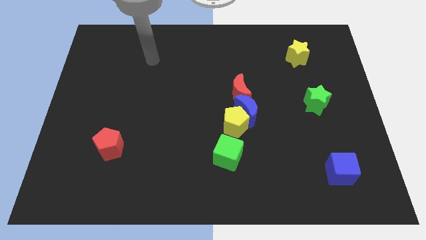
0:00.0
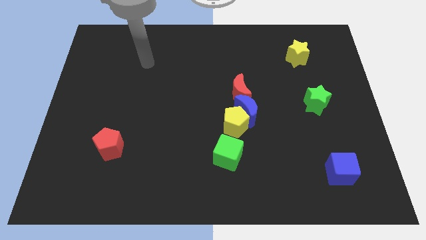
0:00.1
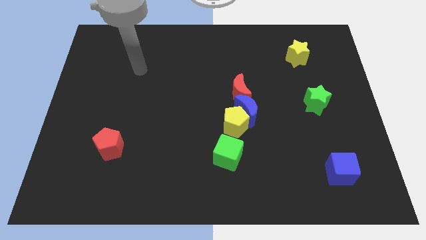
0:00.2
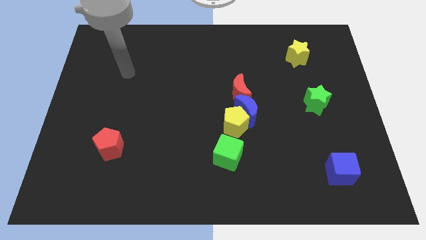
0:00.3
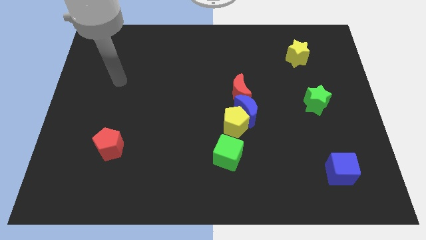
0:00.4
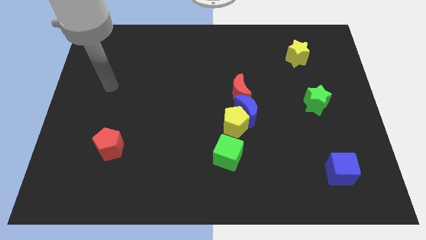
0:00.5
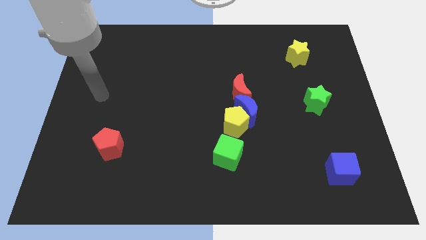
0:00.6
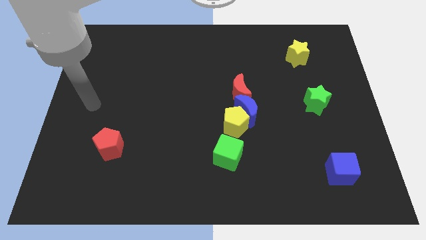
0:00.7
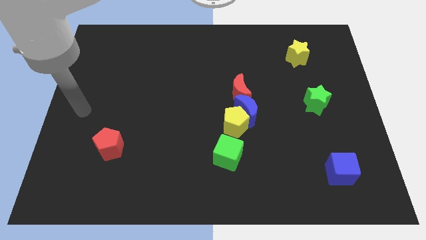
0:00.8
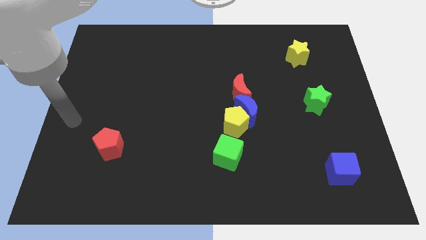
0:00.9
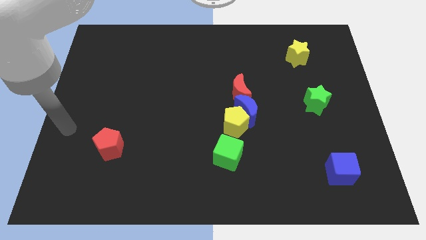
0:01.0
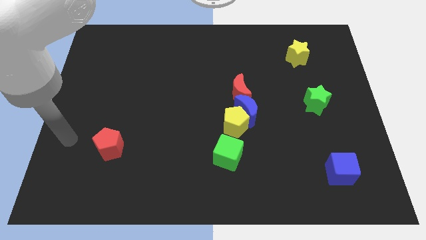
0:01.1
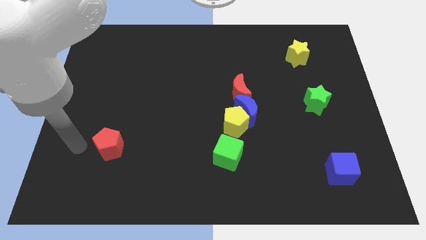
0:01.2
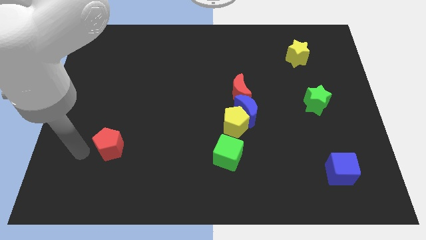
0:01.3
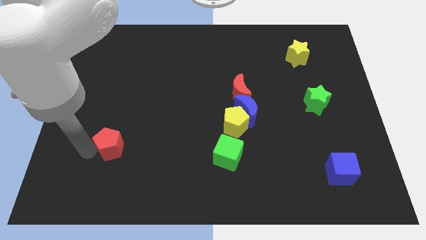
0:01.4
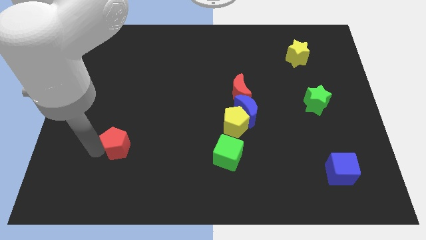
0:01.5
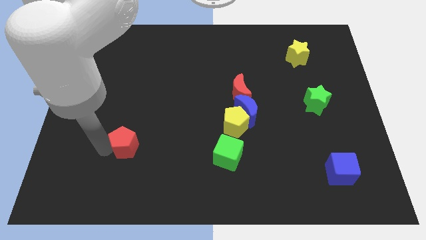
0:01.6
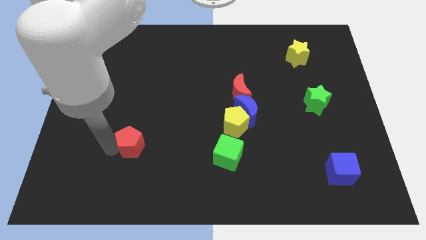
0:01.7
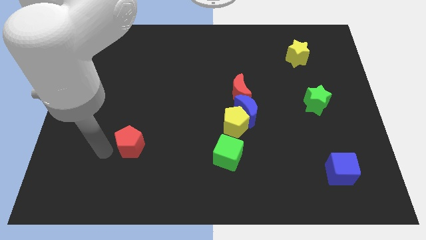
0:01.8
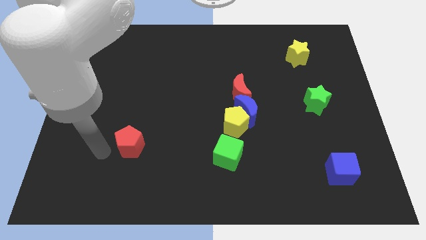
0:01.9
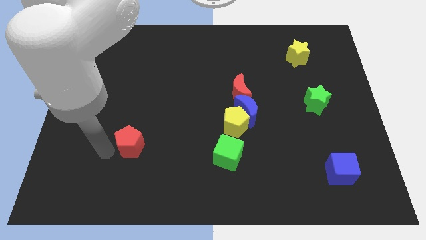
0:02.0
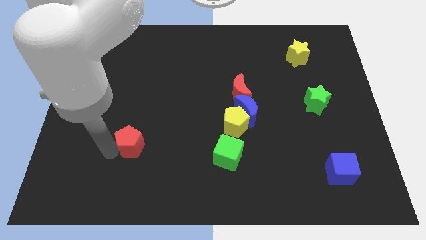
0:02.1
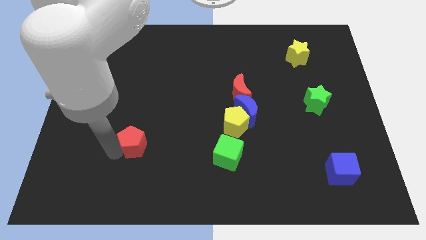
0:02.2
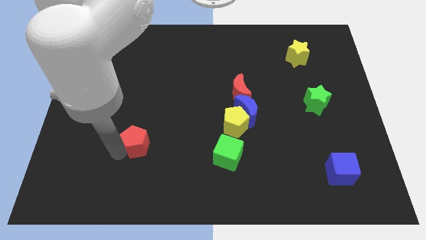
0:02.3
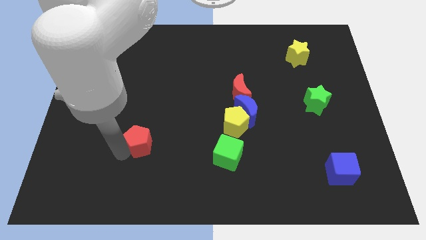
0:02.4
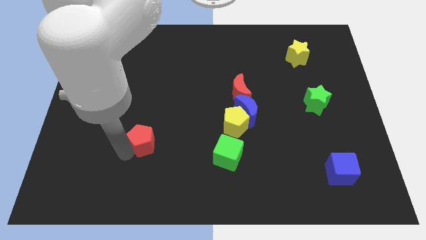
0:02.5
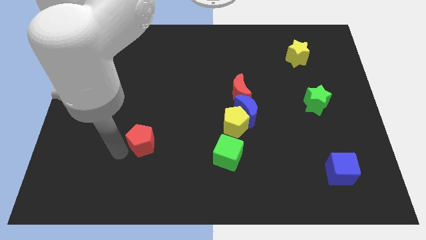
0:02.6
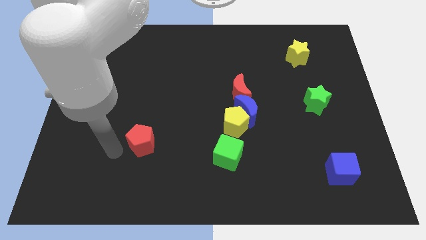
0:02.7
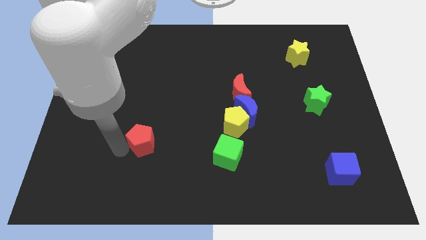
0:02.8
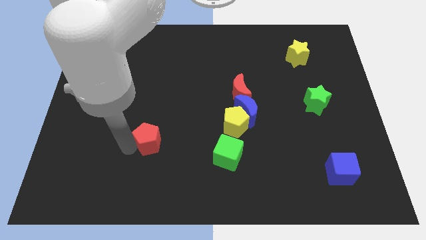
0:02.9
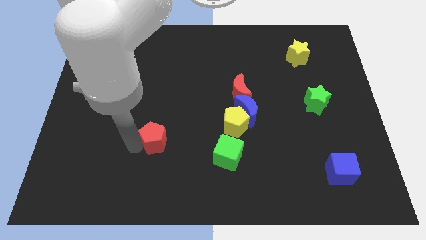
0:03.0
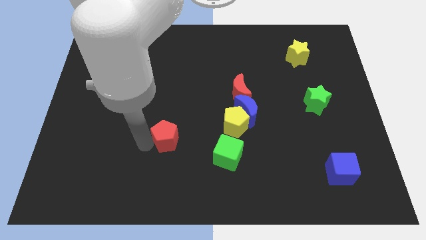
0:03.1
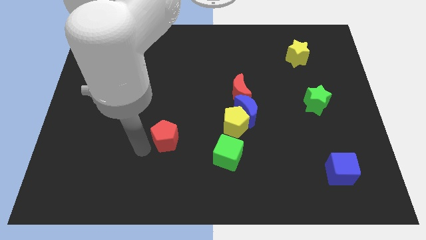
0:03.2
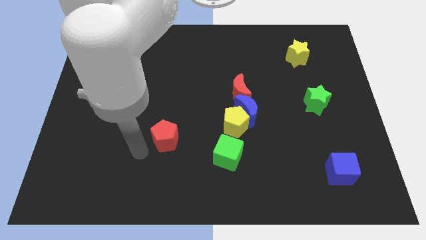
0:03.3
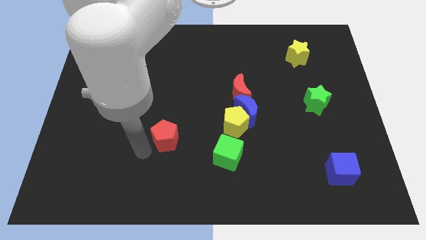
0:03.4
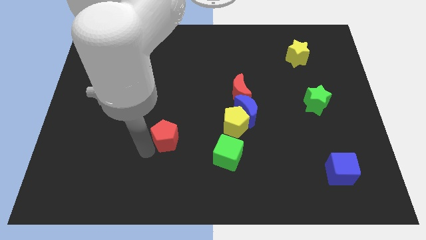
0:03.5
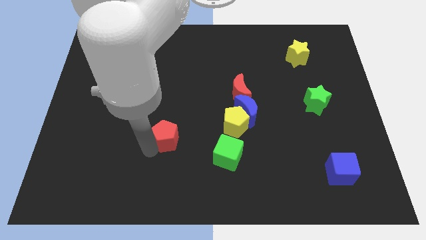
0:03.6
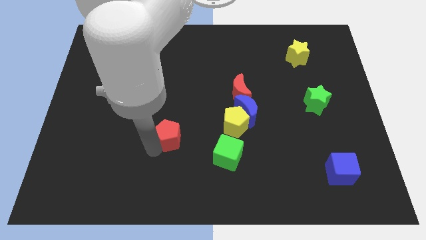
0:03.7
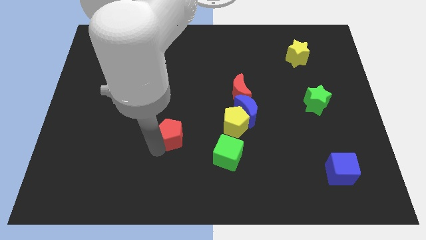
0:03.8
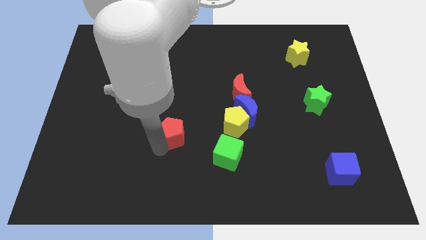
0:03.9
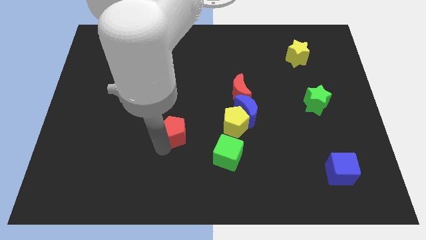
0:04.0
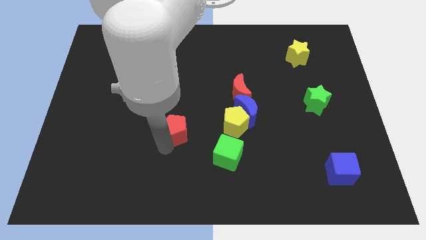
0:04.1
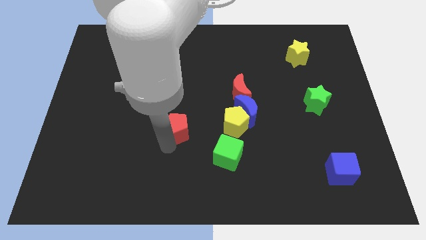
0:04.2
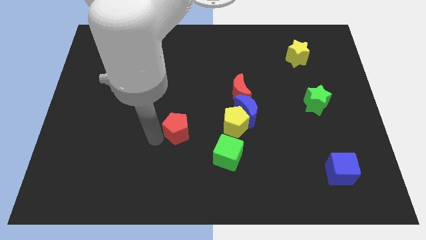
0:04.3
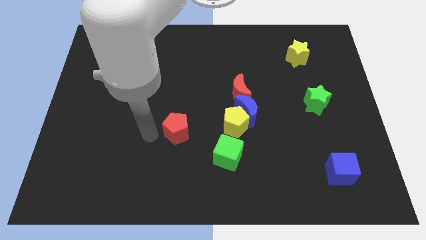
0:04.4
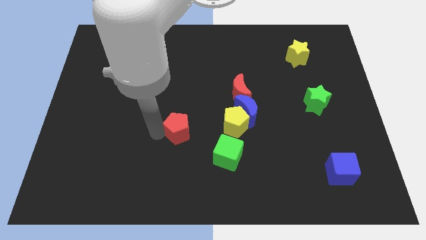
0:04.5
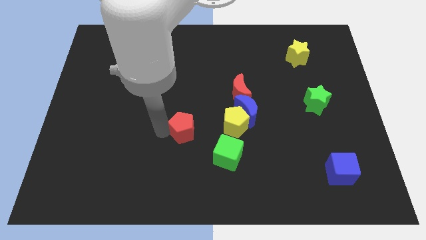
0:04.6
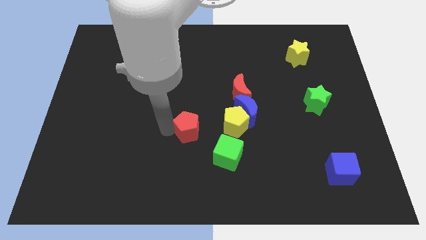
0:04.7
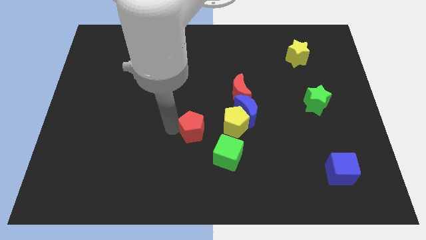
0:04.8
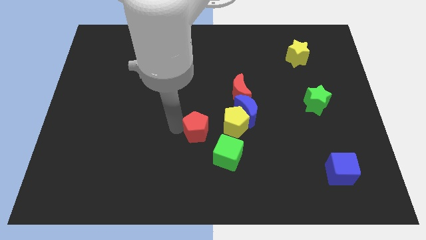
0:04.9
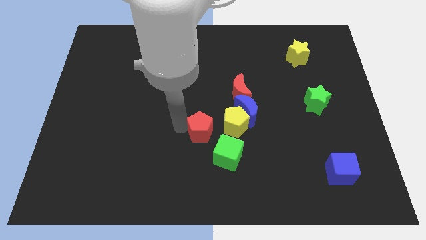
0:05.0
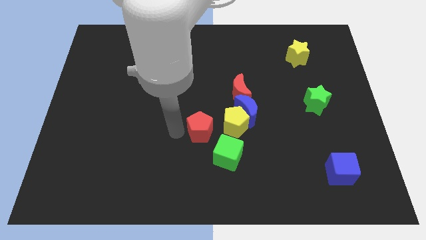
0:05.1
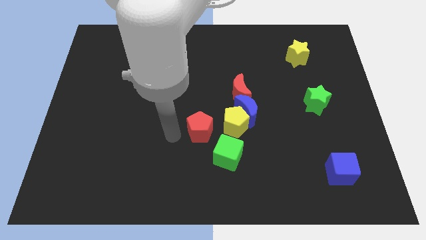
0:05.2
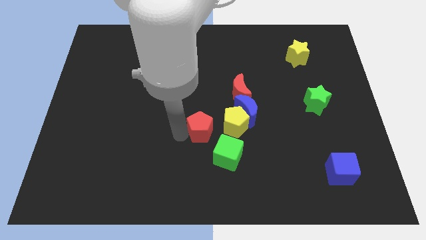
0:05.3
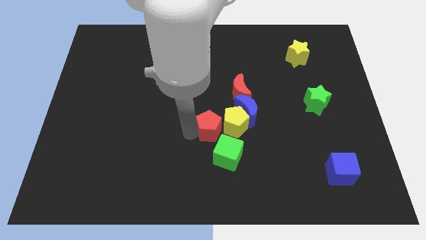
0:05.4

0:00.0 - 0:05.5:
slide the red pentagon next to the yellow pentagon

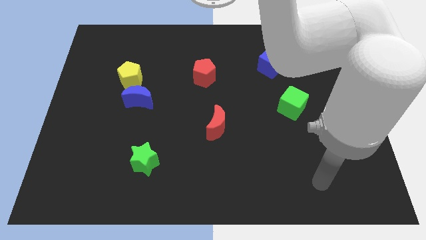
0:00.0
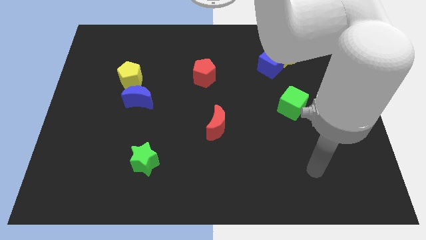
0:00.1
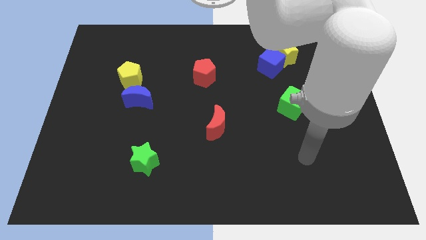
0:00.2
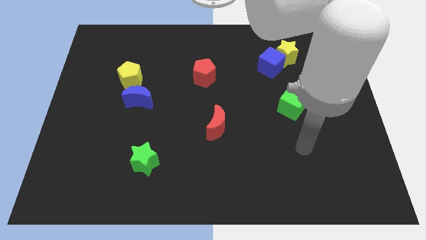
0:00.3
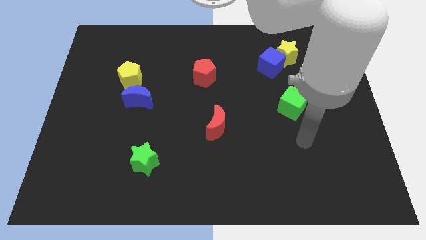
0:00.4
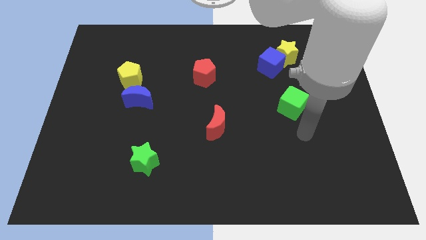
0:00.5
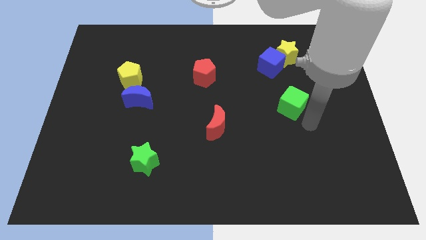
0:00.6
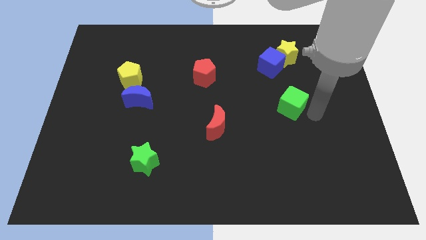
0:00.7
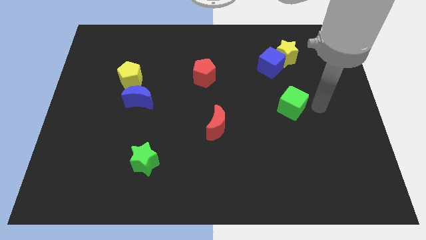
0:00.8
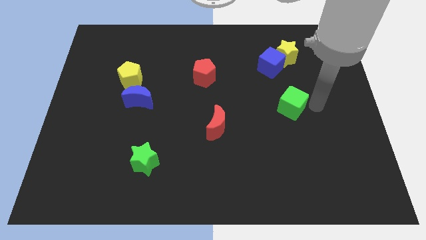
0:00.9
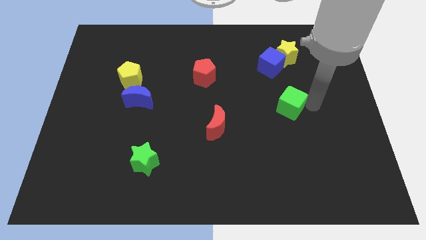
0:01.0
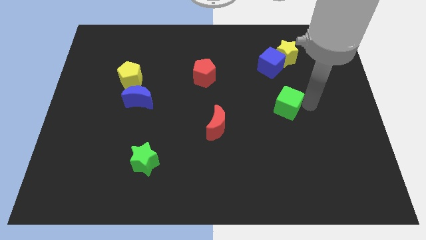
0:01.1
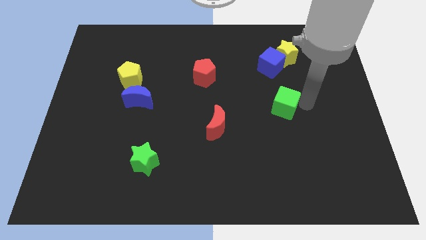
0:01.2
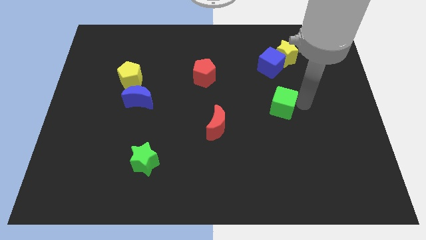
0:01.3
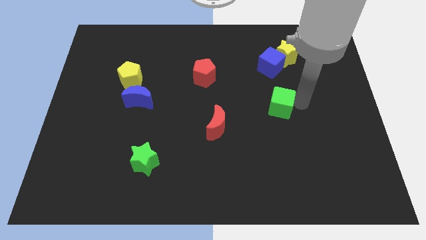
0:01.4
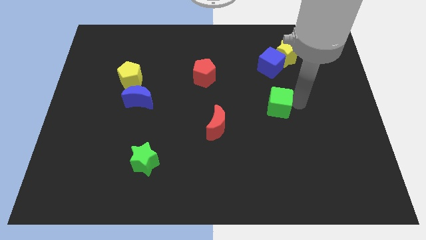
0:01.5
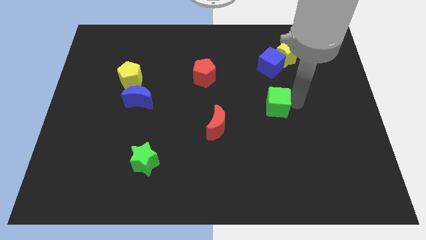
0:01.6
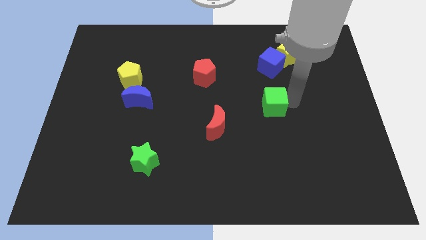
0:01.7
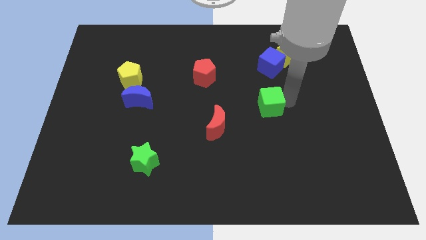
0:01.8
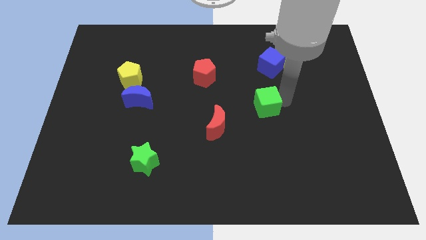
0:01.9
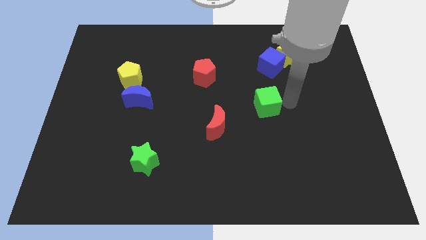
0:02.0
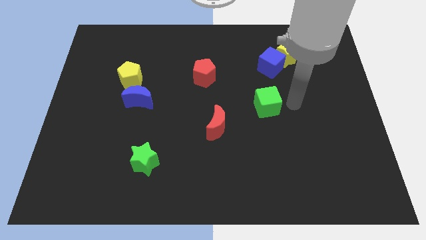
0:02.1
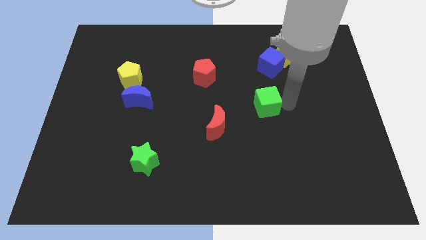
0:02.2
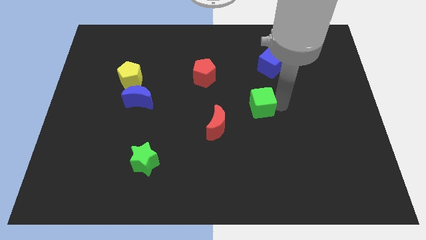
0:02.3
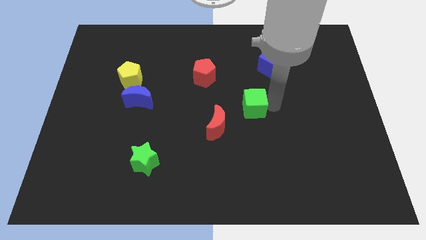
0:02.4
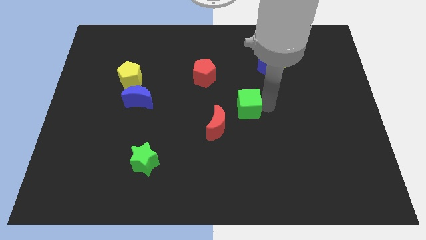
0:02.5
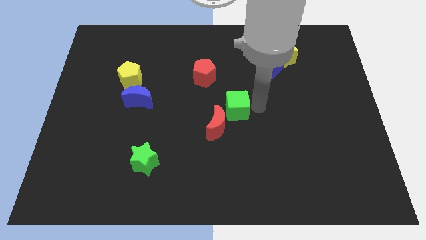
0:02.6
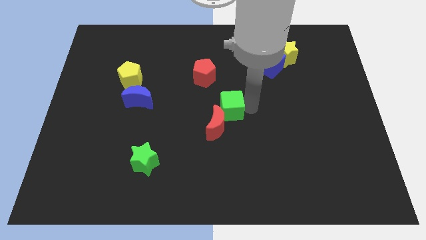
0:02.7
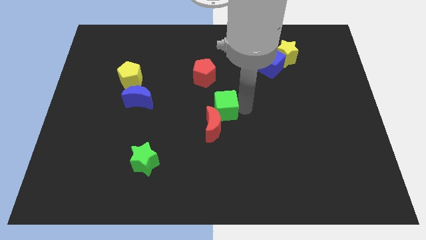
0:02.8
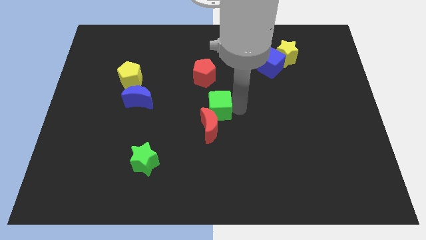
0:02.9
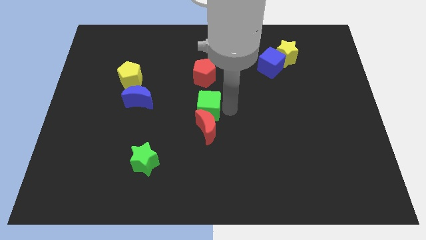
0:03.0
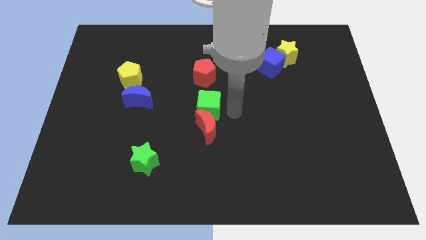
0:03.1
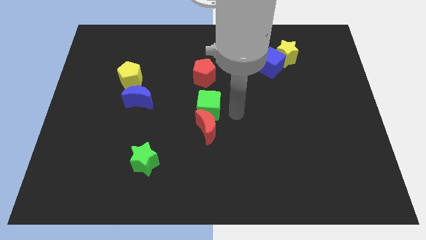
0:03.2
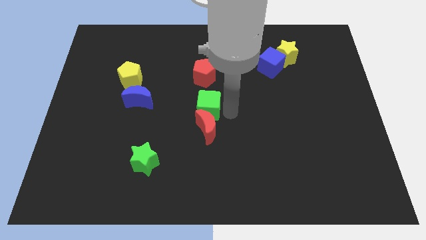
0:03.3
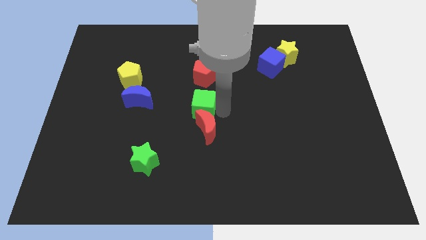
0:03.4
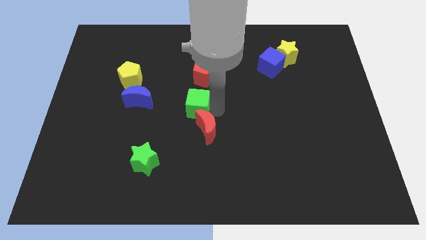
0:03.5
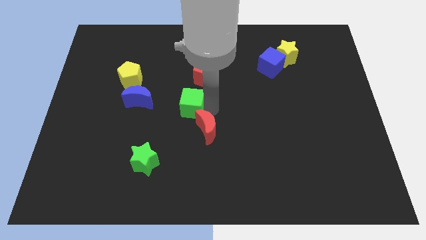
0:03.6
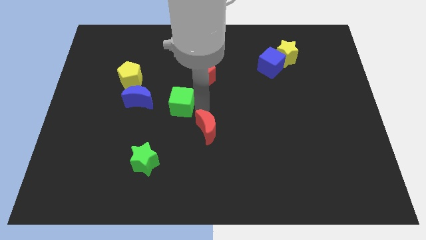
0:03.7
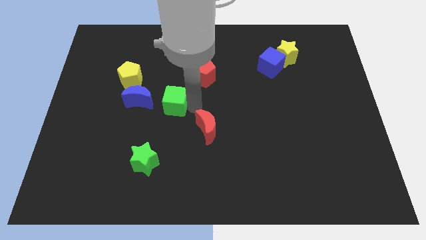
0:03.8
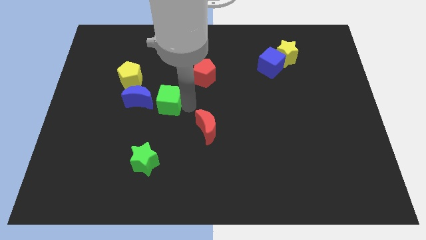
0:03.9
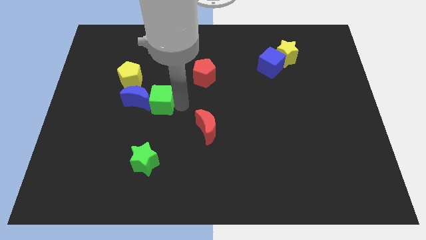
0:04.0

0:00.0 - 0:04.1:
push the green cube to the blue moon
